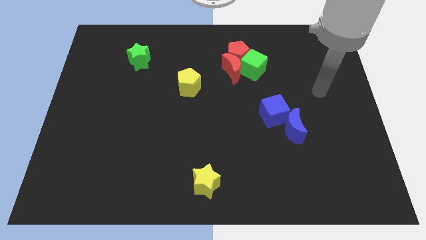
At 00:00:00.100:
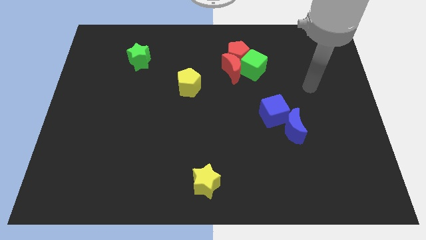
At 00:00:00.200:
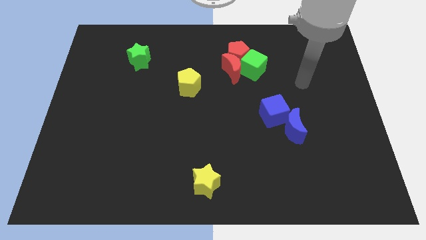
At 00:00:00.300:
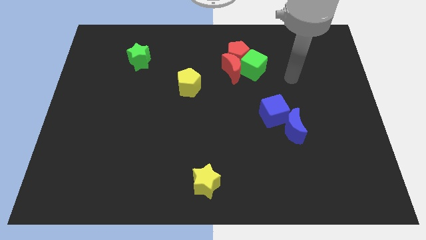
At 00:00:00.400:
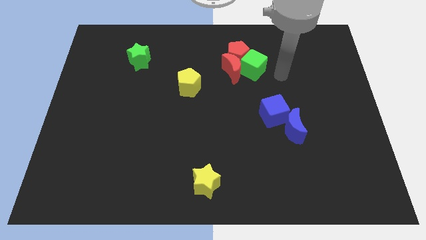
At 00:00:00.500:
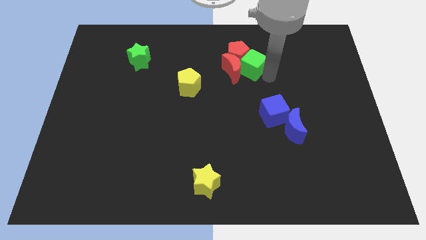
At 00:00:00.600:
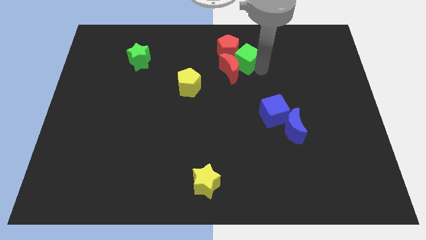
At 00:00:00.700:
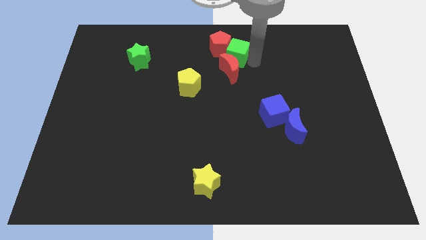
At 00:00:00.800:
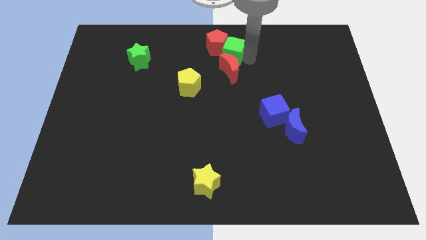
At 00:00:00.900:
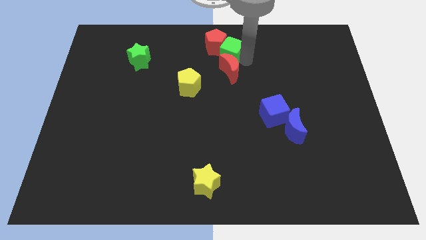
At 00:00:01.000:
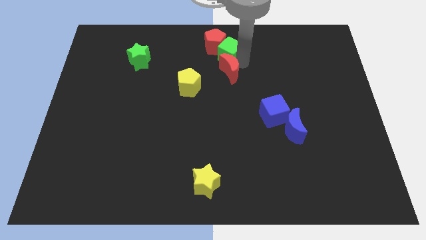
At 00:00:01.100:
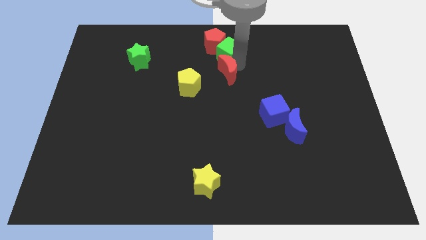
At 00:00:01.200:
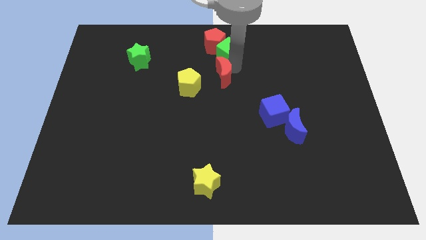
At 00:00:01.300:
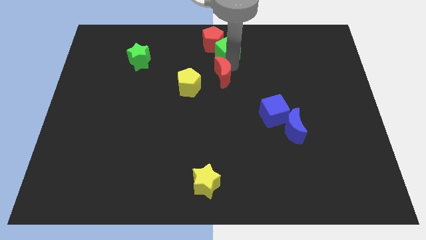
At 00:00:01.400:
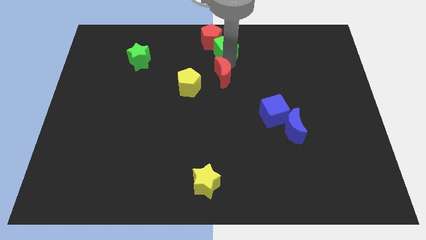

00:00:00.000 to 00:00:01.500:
separate the red moon from the red pentagon and green cube

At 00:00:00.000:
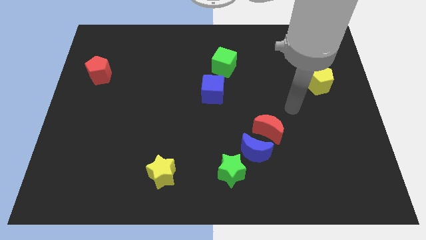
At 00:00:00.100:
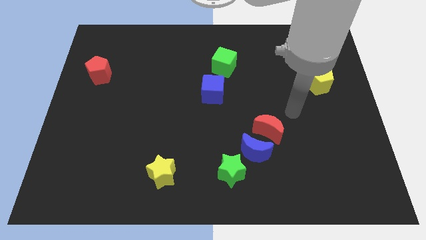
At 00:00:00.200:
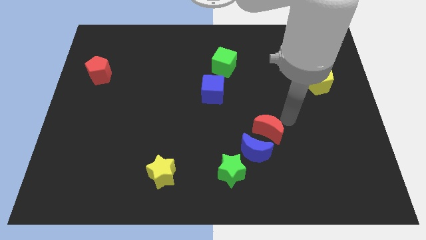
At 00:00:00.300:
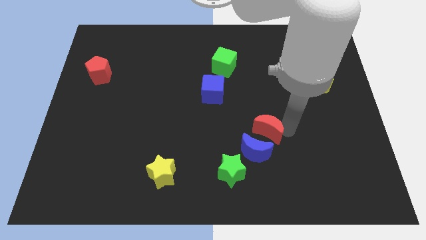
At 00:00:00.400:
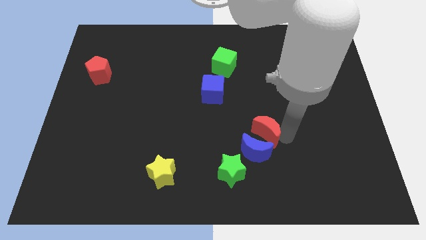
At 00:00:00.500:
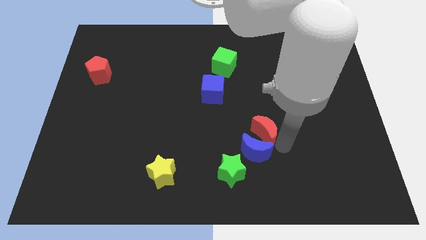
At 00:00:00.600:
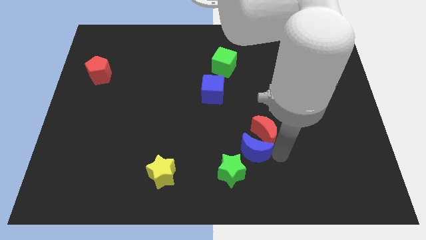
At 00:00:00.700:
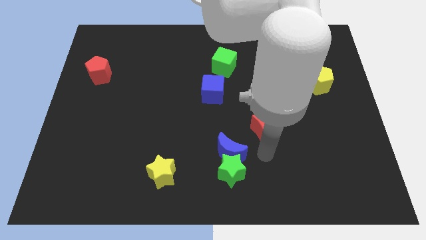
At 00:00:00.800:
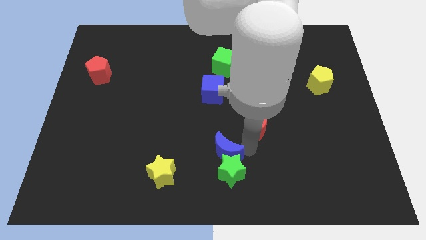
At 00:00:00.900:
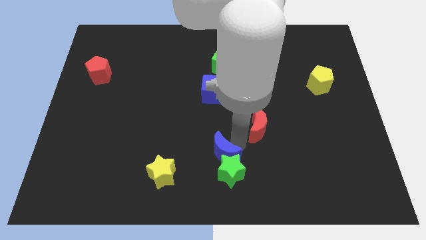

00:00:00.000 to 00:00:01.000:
move the red moon away from the blue moon

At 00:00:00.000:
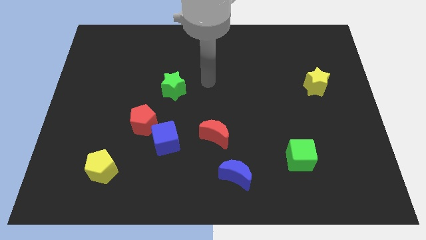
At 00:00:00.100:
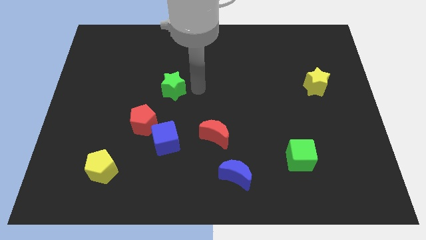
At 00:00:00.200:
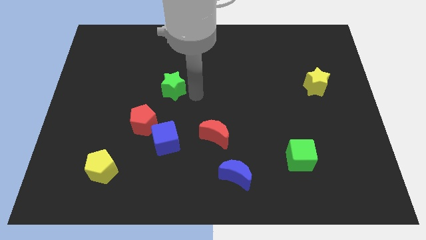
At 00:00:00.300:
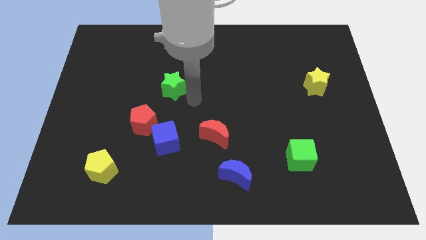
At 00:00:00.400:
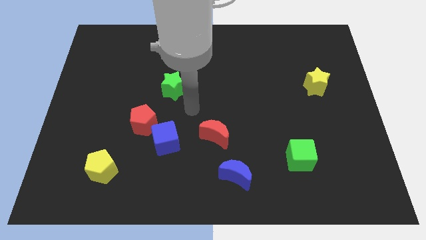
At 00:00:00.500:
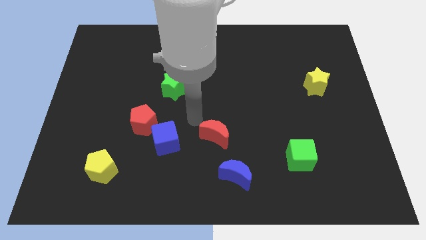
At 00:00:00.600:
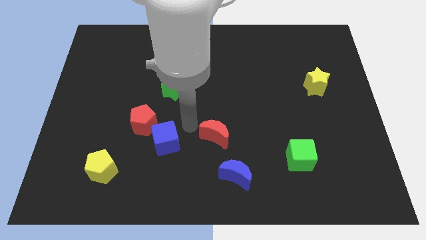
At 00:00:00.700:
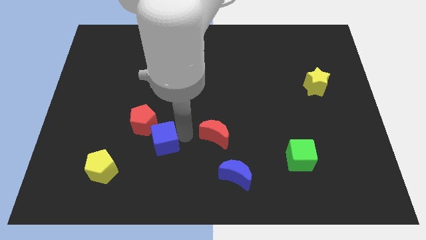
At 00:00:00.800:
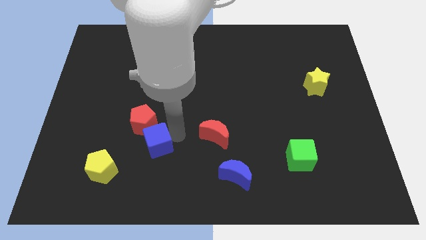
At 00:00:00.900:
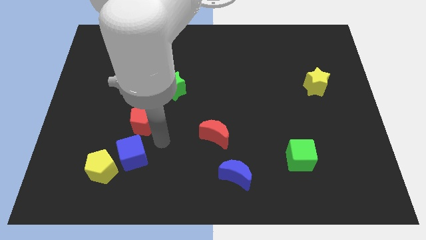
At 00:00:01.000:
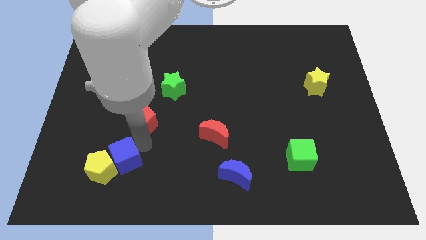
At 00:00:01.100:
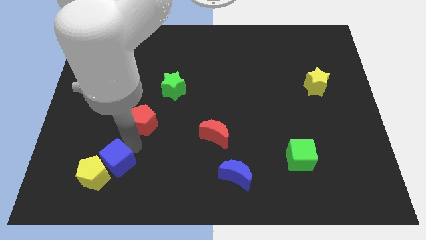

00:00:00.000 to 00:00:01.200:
move the red pentagon away from the blue cube

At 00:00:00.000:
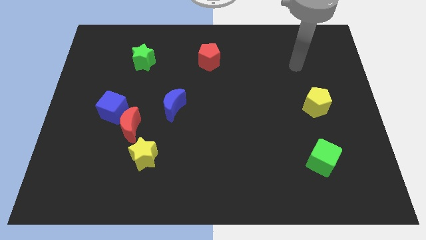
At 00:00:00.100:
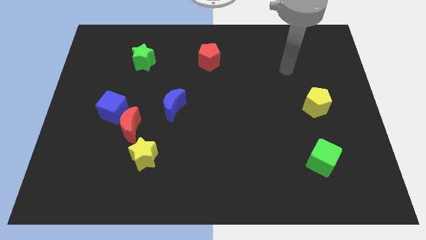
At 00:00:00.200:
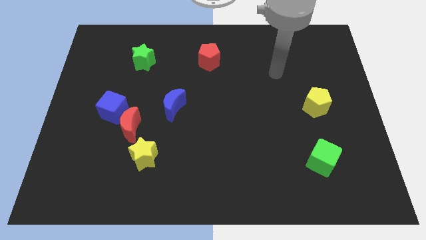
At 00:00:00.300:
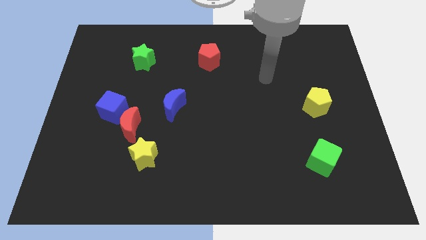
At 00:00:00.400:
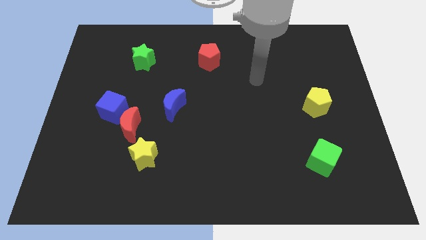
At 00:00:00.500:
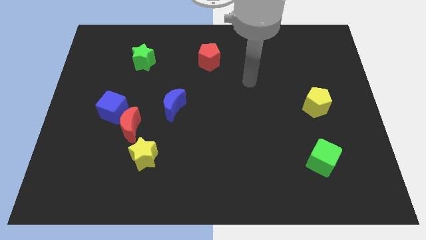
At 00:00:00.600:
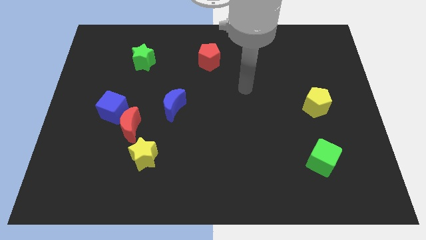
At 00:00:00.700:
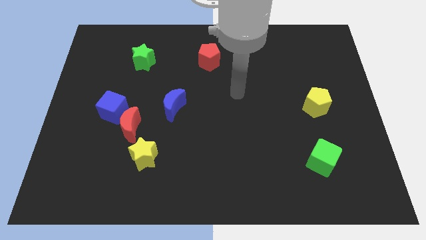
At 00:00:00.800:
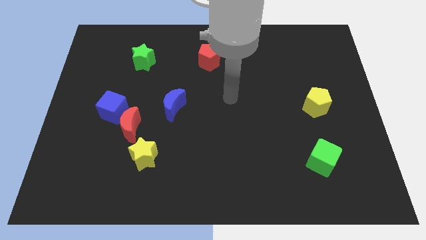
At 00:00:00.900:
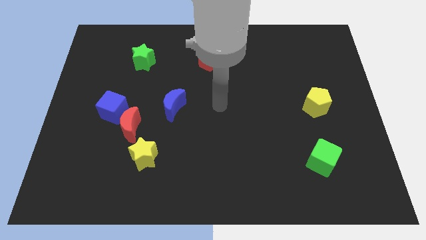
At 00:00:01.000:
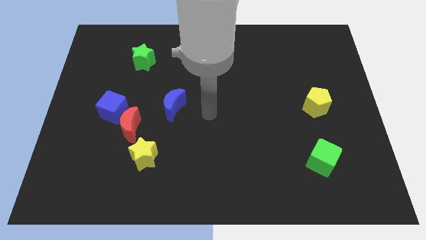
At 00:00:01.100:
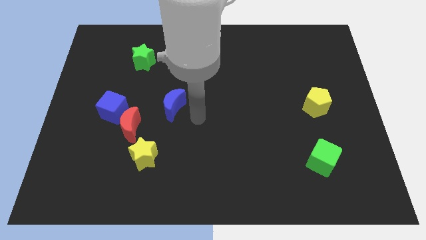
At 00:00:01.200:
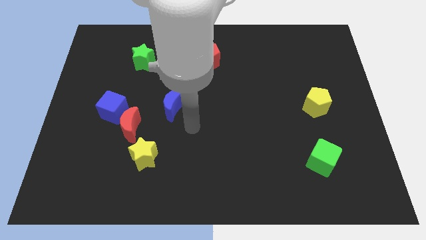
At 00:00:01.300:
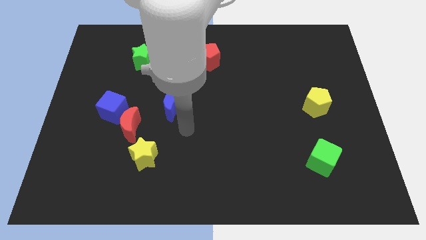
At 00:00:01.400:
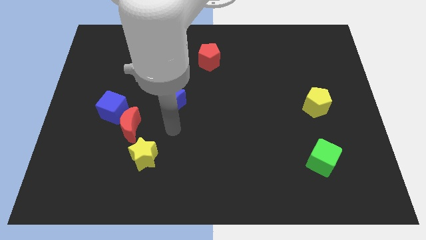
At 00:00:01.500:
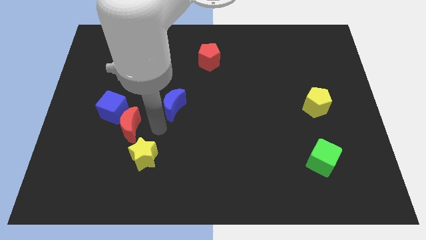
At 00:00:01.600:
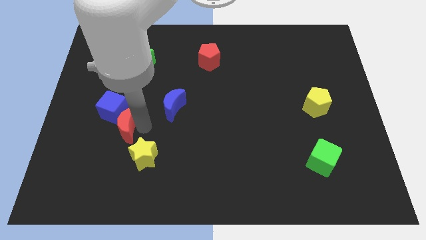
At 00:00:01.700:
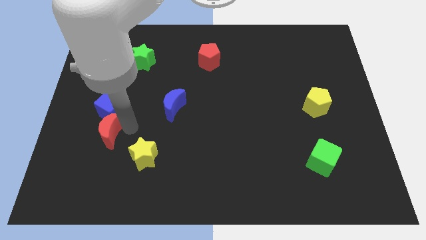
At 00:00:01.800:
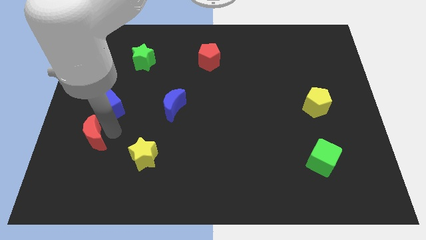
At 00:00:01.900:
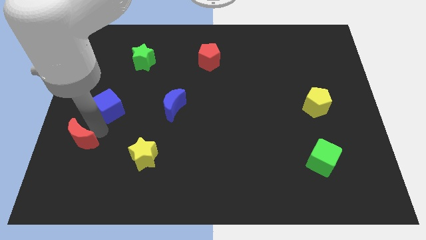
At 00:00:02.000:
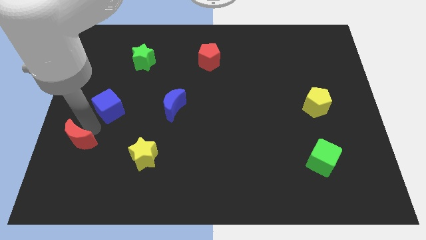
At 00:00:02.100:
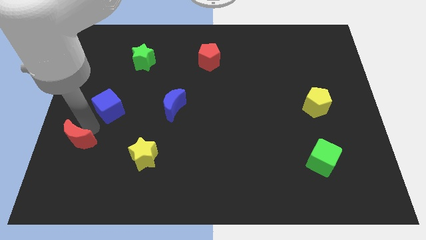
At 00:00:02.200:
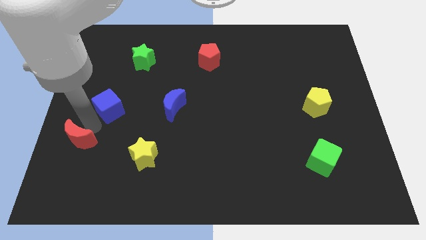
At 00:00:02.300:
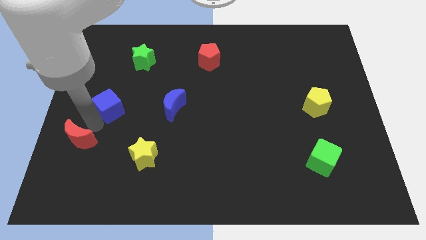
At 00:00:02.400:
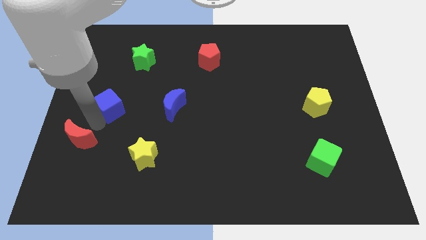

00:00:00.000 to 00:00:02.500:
separate the blue cube from the red moon

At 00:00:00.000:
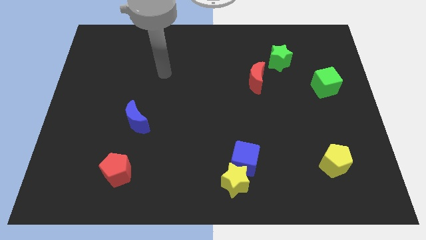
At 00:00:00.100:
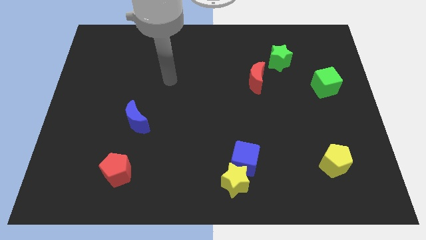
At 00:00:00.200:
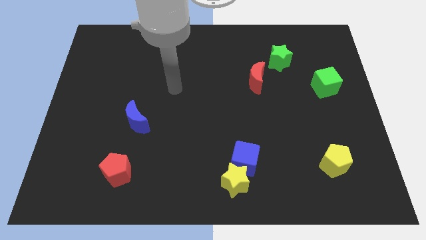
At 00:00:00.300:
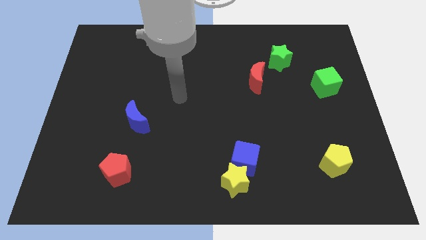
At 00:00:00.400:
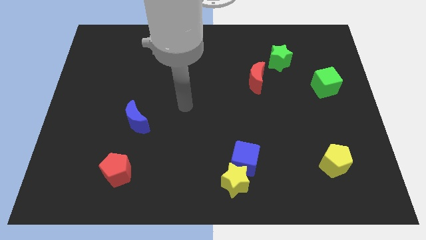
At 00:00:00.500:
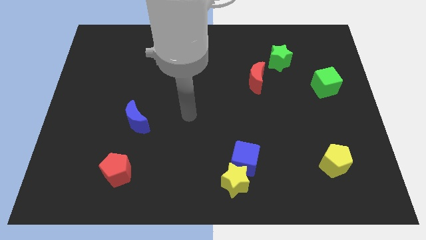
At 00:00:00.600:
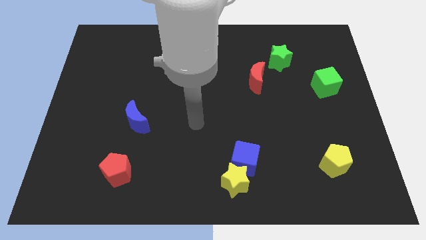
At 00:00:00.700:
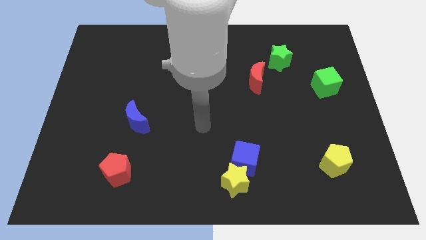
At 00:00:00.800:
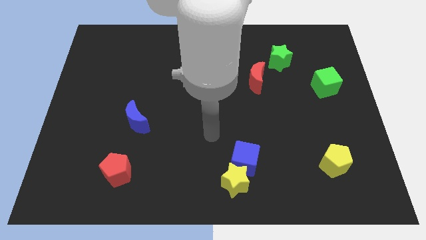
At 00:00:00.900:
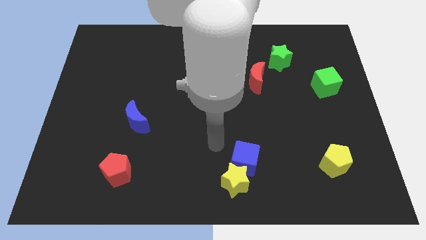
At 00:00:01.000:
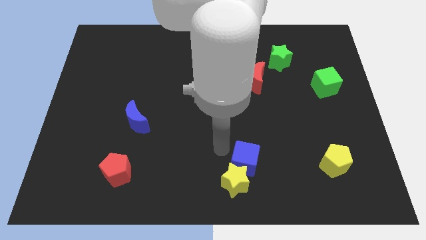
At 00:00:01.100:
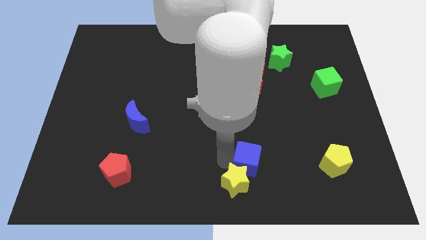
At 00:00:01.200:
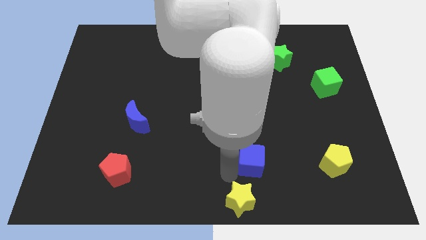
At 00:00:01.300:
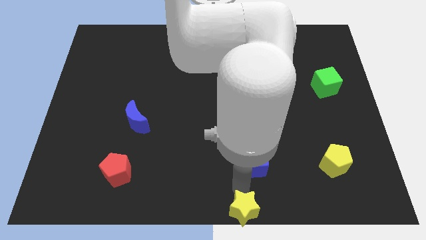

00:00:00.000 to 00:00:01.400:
move the blue cube away from the yellow star

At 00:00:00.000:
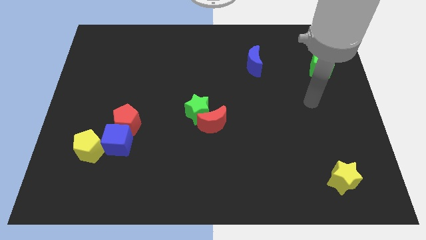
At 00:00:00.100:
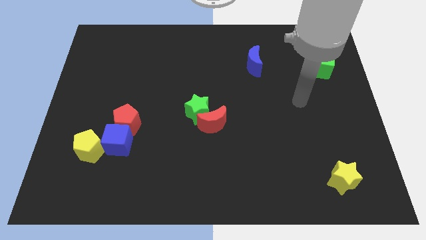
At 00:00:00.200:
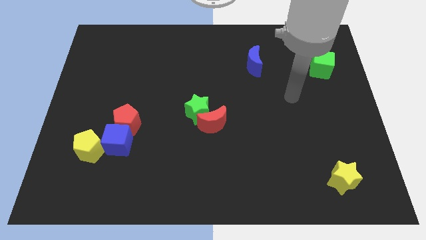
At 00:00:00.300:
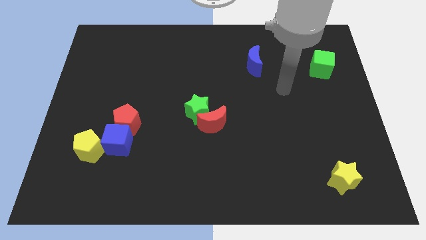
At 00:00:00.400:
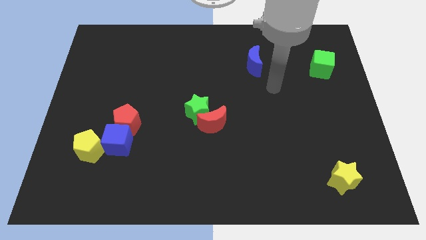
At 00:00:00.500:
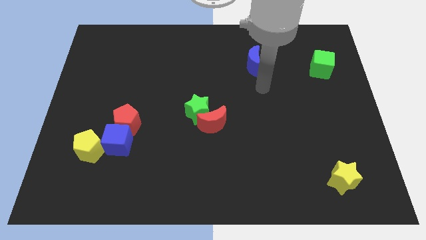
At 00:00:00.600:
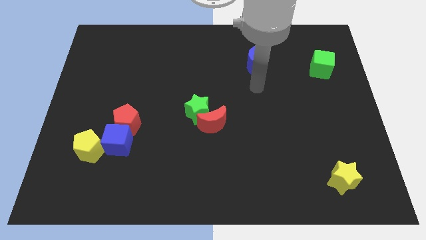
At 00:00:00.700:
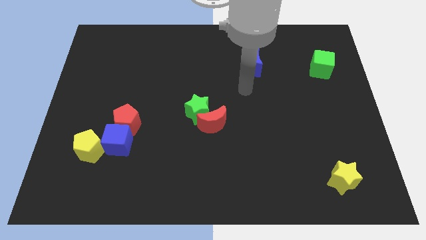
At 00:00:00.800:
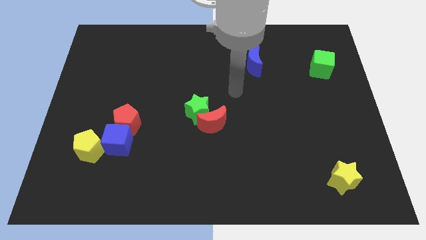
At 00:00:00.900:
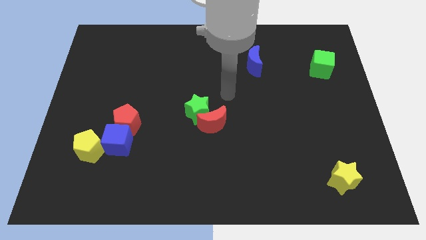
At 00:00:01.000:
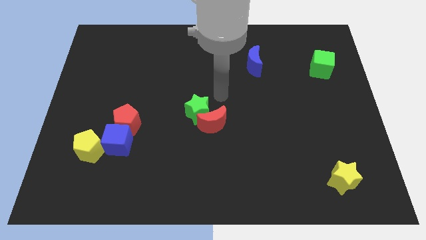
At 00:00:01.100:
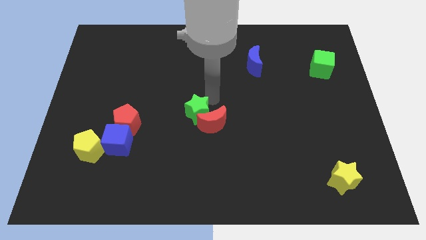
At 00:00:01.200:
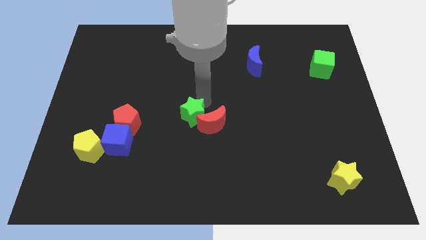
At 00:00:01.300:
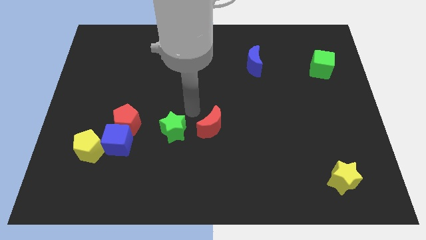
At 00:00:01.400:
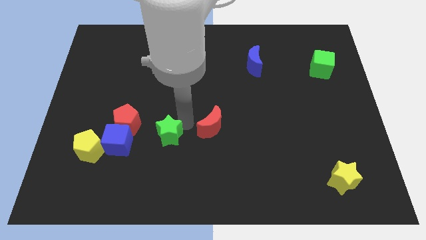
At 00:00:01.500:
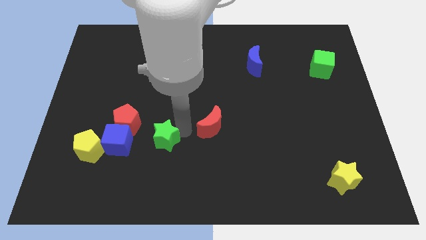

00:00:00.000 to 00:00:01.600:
separate the red moon from the green star
